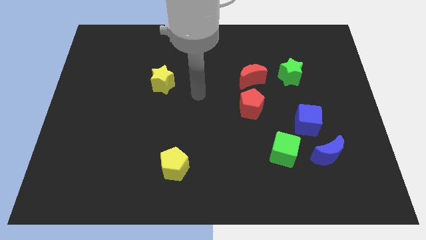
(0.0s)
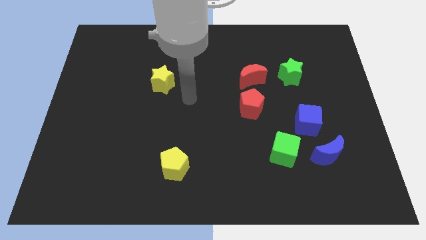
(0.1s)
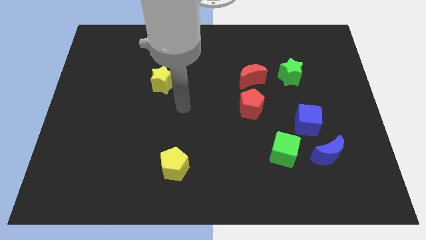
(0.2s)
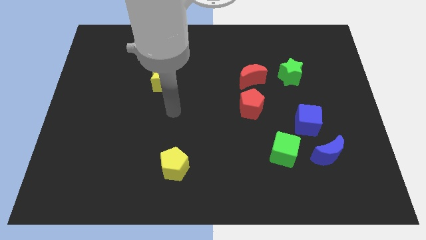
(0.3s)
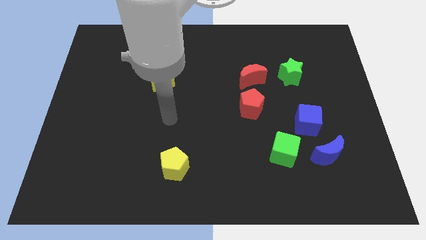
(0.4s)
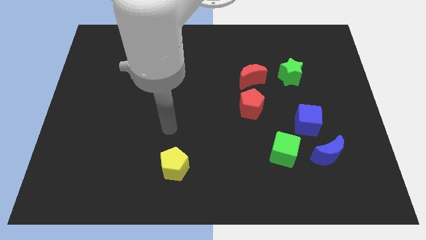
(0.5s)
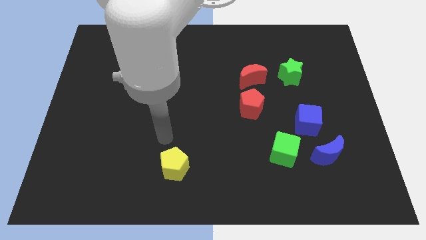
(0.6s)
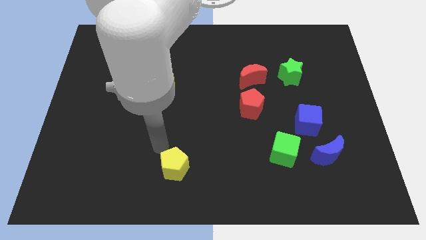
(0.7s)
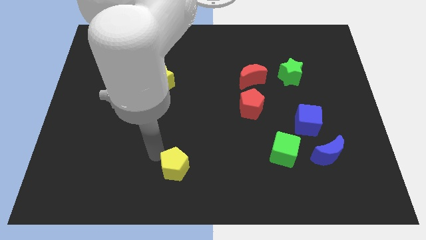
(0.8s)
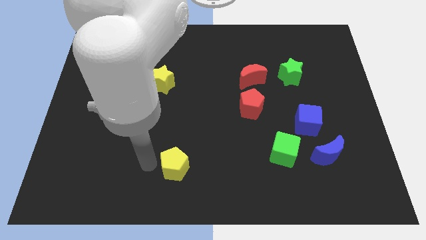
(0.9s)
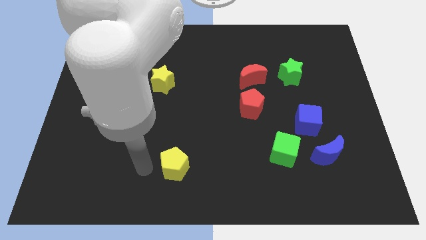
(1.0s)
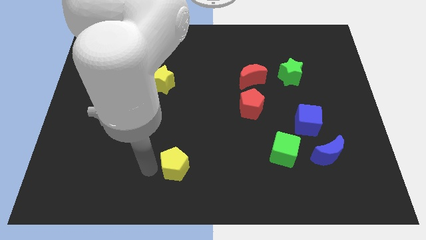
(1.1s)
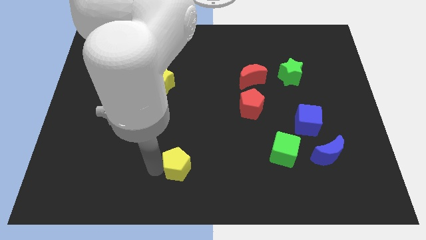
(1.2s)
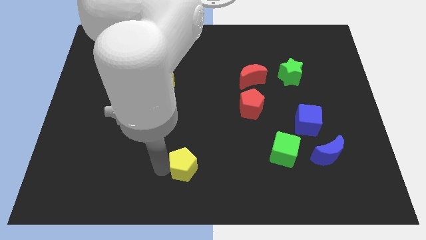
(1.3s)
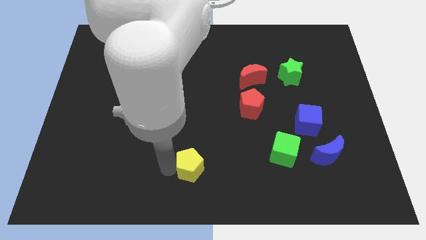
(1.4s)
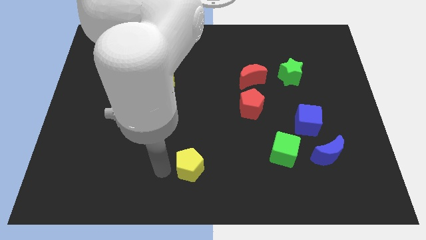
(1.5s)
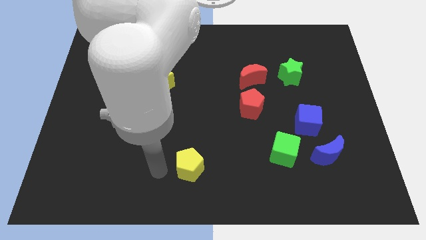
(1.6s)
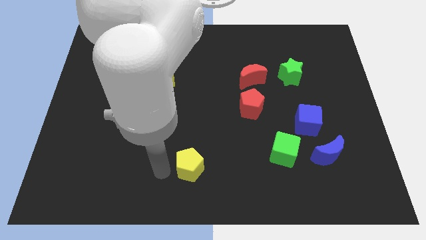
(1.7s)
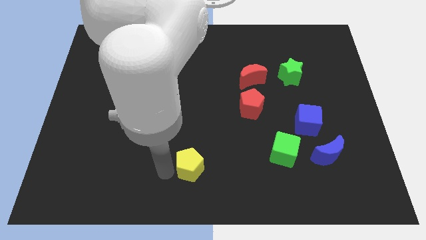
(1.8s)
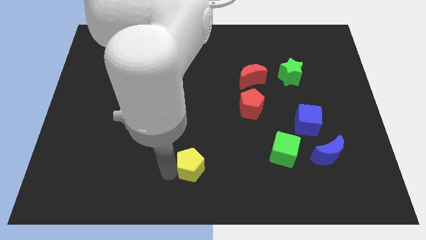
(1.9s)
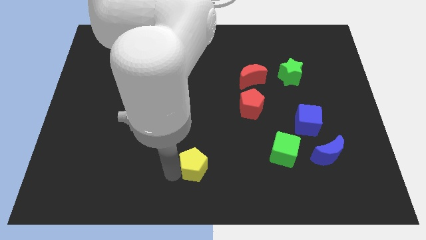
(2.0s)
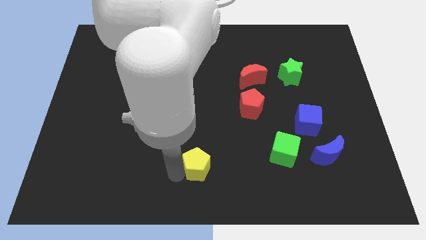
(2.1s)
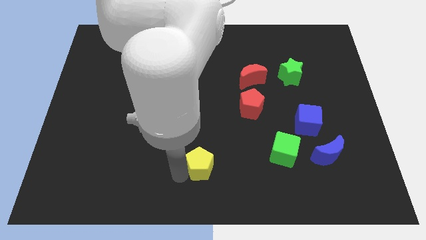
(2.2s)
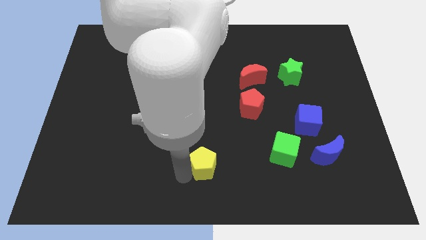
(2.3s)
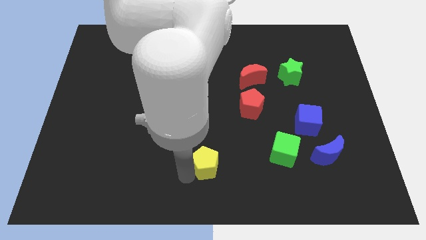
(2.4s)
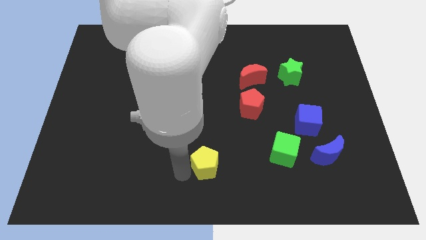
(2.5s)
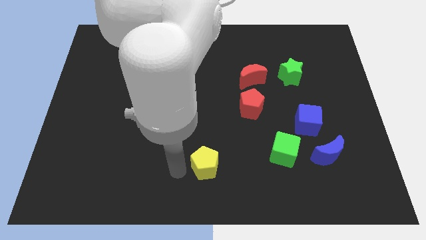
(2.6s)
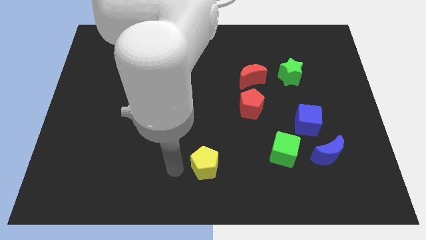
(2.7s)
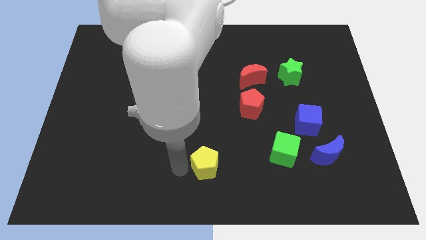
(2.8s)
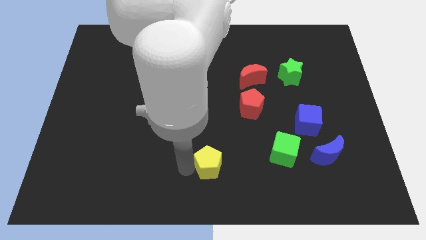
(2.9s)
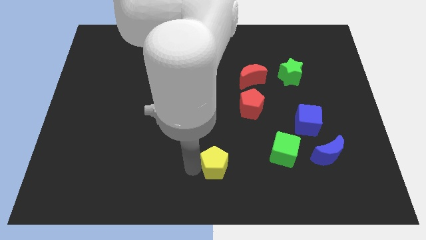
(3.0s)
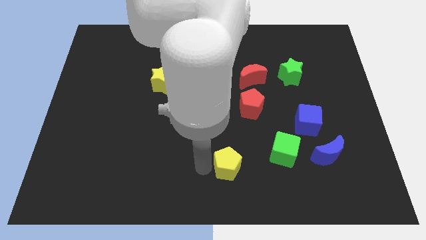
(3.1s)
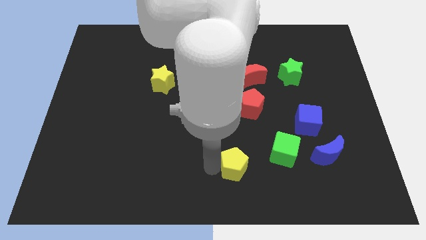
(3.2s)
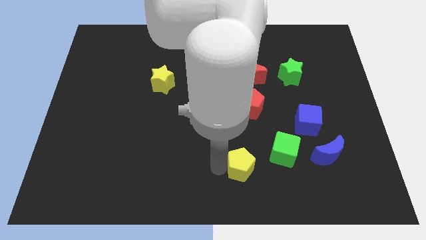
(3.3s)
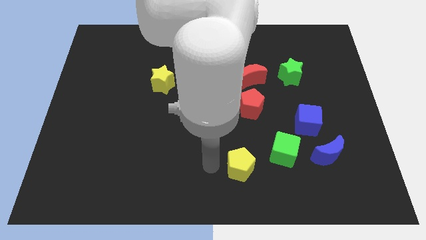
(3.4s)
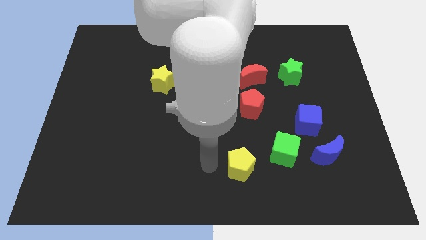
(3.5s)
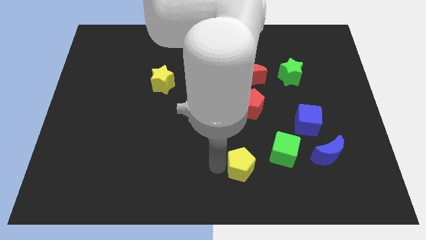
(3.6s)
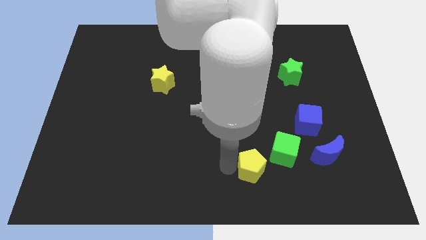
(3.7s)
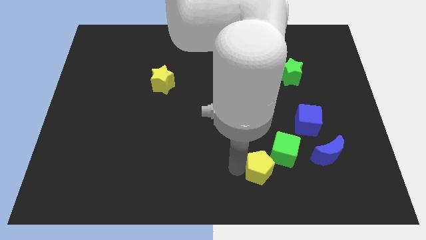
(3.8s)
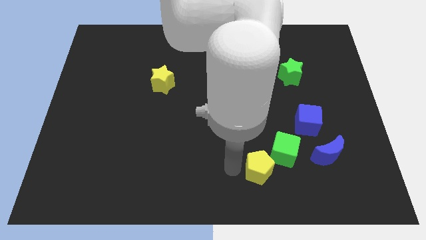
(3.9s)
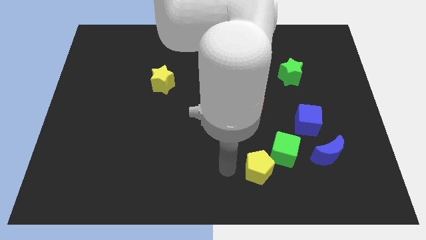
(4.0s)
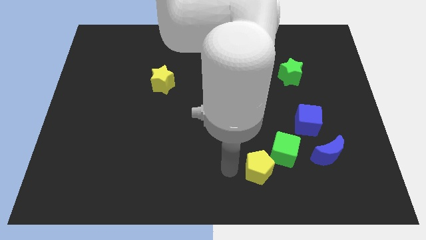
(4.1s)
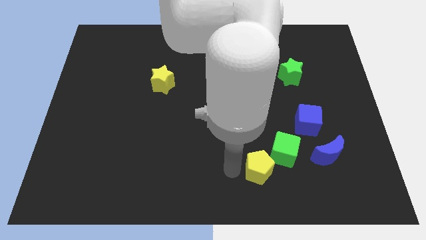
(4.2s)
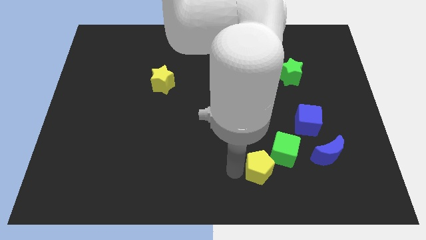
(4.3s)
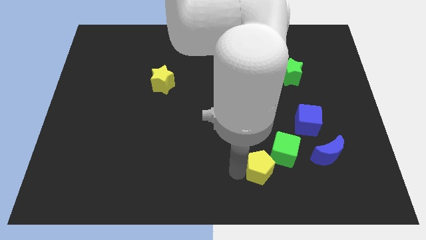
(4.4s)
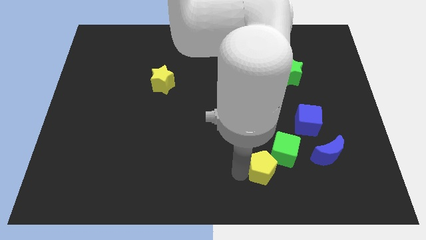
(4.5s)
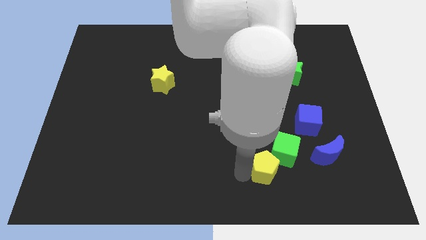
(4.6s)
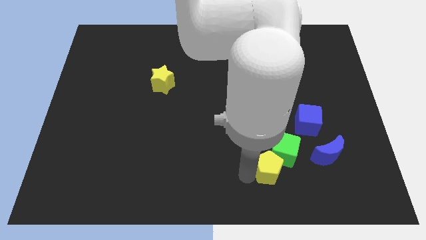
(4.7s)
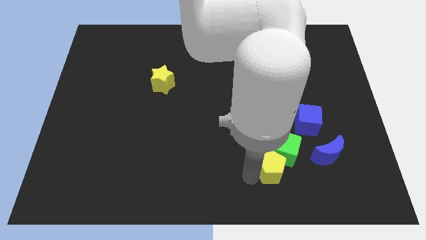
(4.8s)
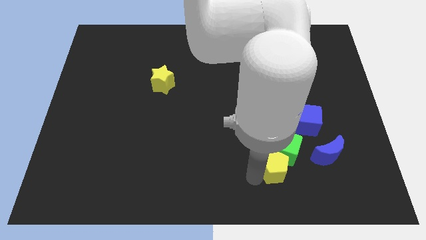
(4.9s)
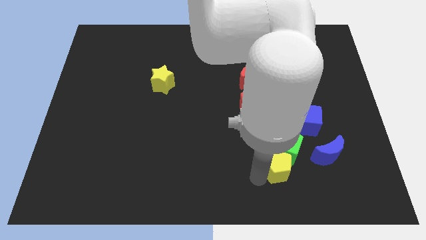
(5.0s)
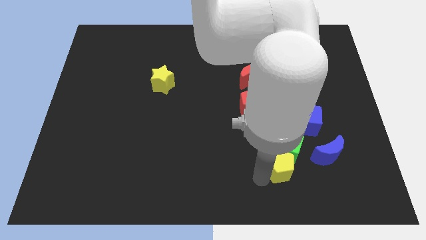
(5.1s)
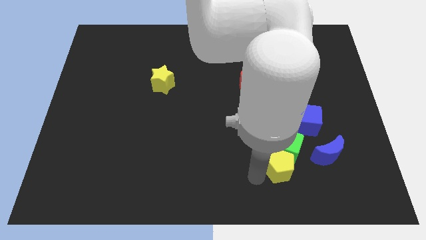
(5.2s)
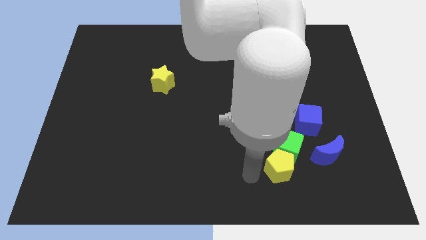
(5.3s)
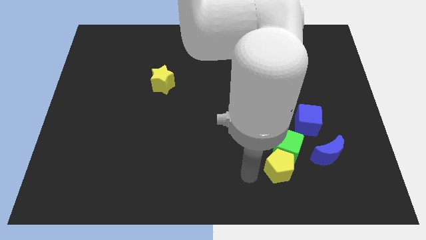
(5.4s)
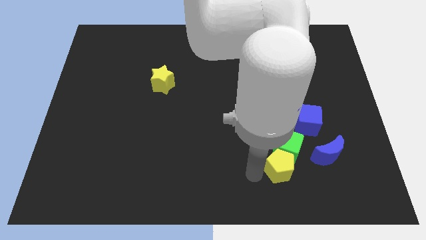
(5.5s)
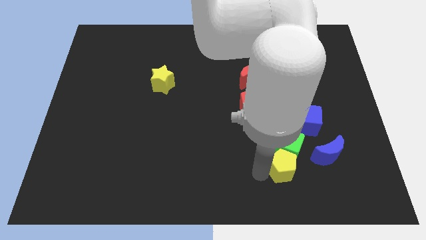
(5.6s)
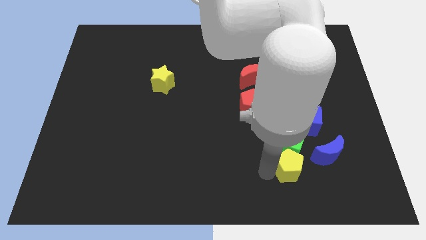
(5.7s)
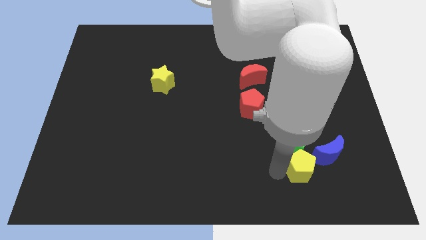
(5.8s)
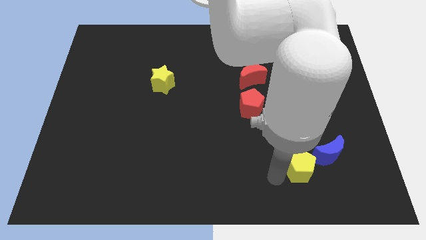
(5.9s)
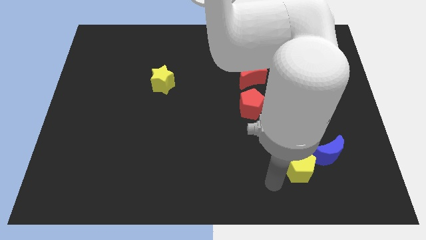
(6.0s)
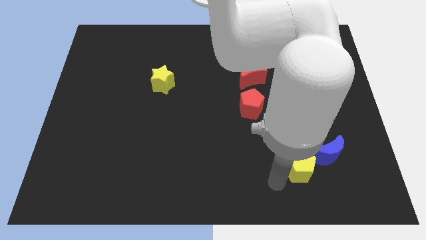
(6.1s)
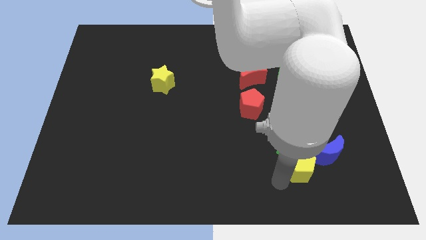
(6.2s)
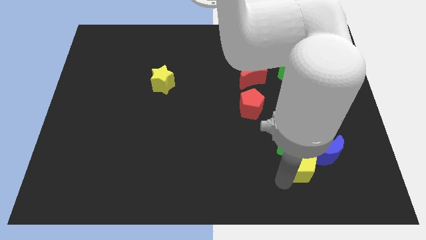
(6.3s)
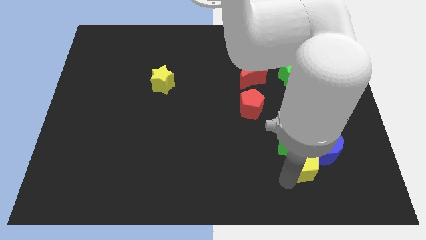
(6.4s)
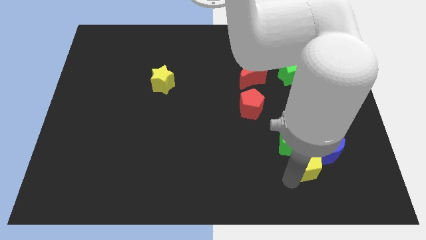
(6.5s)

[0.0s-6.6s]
move the yellow pentagon to the blue moon

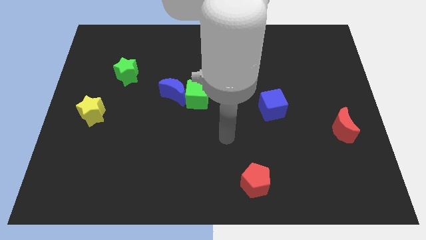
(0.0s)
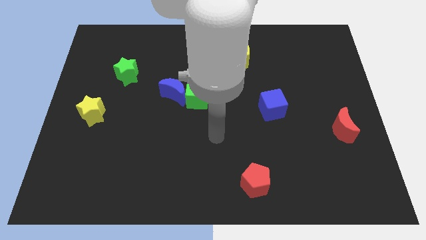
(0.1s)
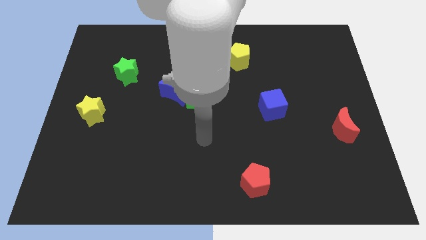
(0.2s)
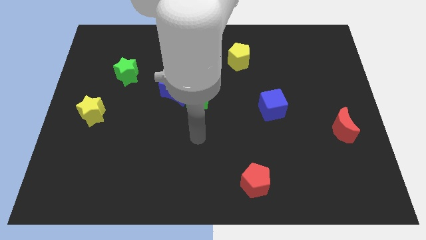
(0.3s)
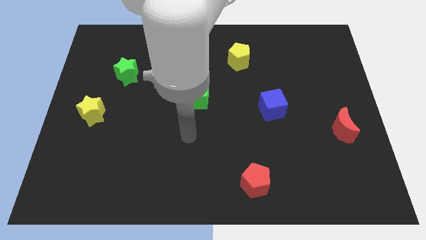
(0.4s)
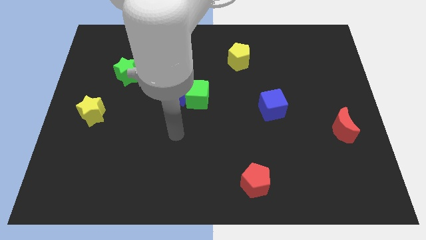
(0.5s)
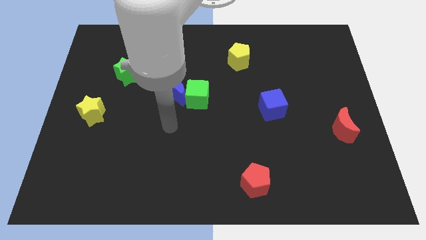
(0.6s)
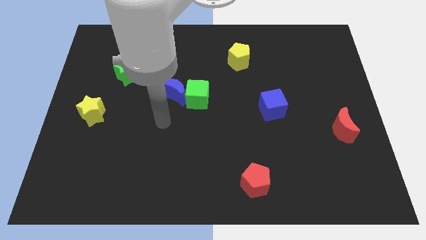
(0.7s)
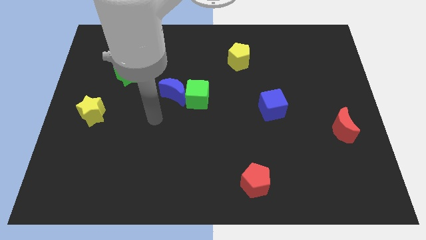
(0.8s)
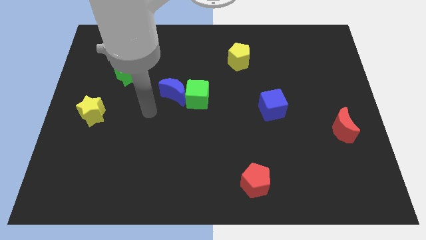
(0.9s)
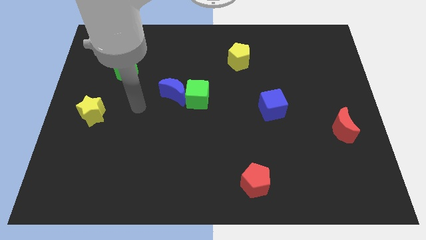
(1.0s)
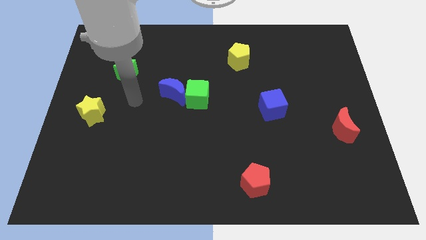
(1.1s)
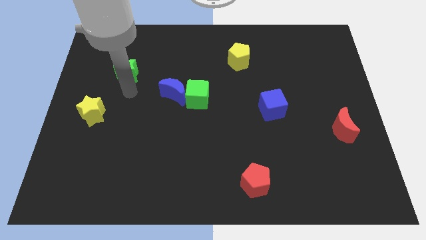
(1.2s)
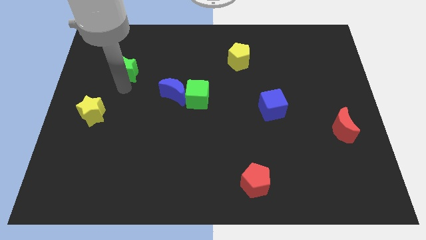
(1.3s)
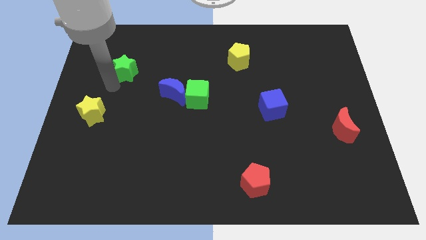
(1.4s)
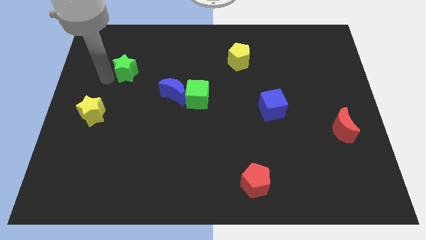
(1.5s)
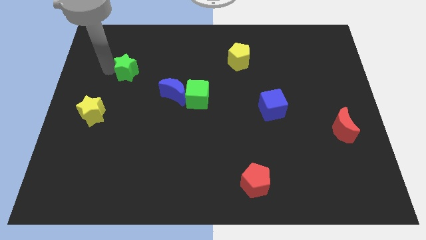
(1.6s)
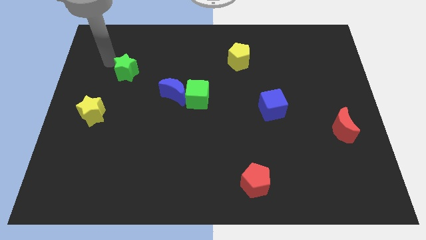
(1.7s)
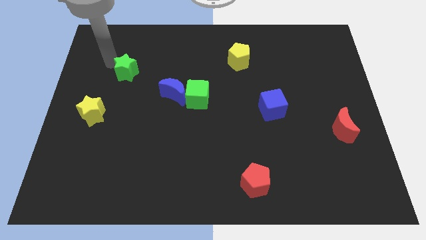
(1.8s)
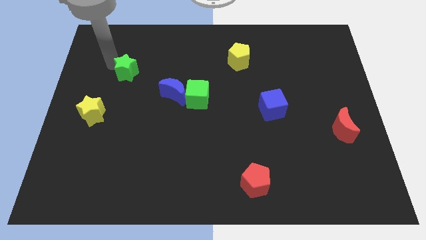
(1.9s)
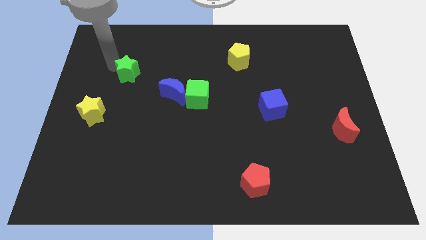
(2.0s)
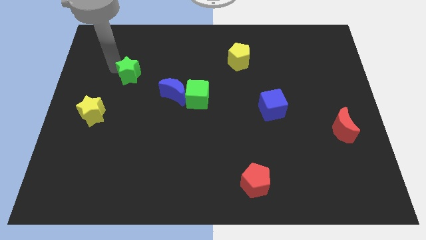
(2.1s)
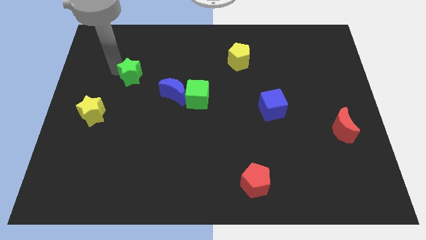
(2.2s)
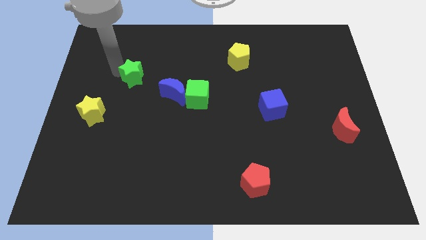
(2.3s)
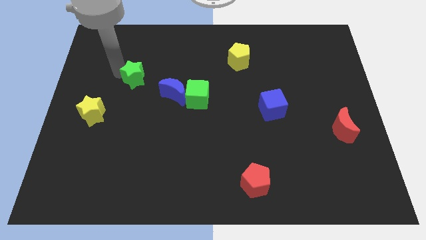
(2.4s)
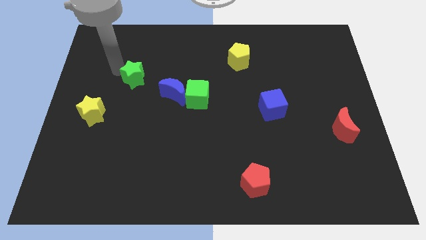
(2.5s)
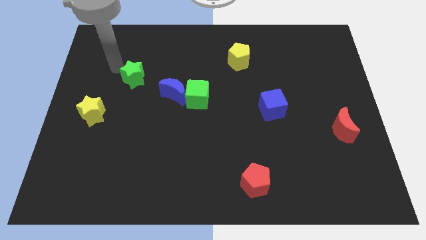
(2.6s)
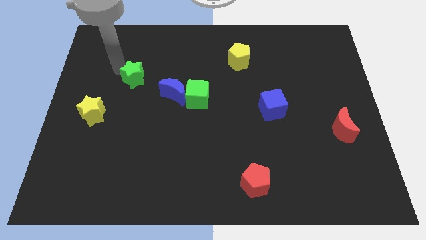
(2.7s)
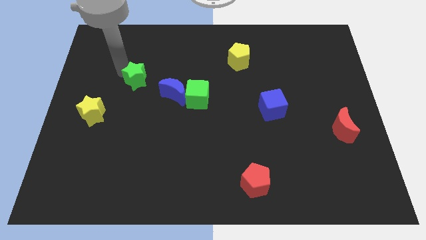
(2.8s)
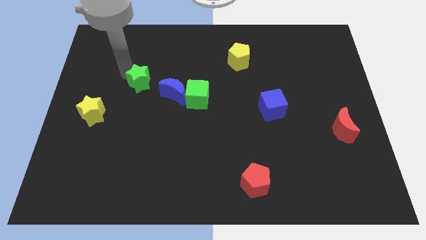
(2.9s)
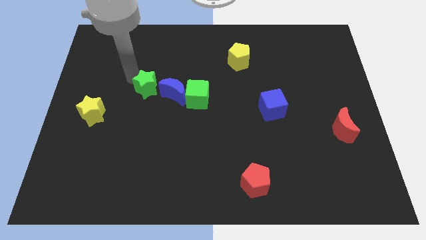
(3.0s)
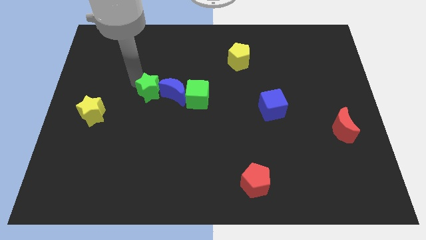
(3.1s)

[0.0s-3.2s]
move the green star towards the blue moon
